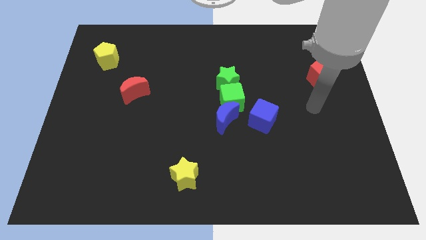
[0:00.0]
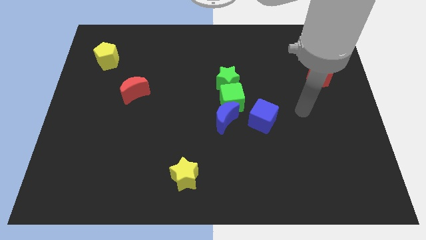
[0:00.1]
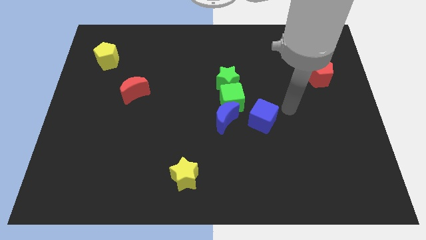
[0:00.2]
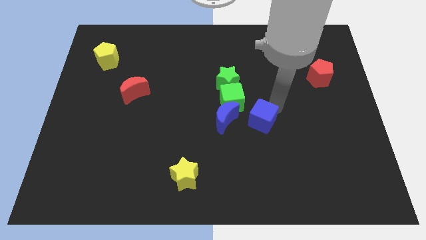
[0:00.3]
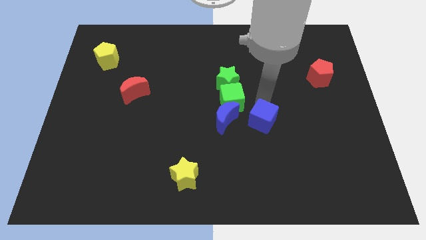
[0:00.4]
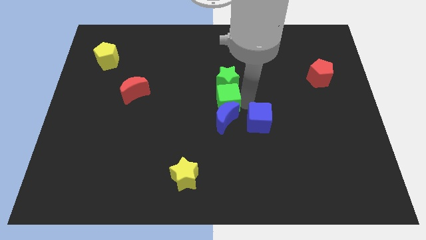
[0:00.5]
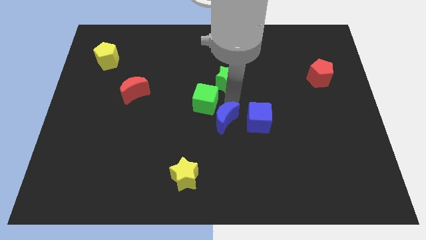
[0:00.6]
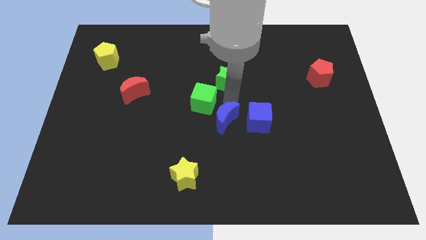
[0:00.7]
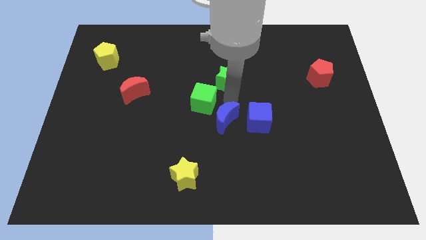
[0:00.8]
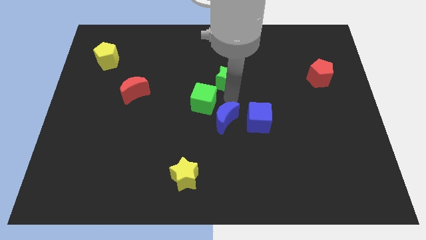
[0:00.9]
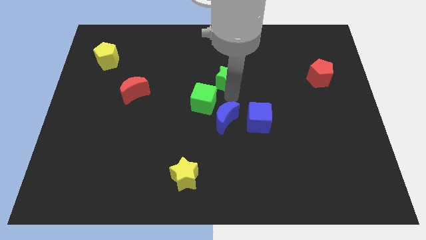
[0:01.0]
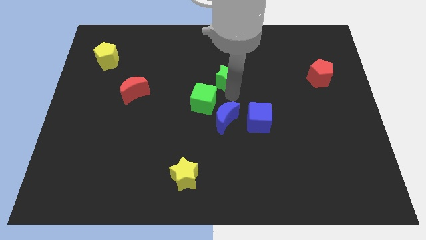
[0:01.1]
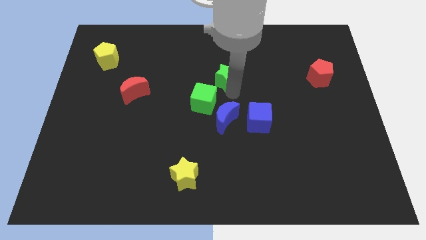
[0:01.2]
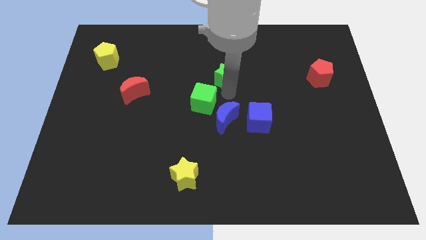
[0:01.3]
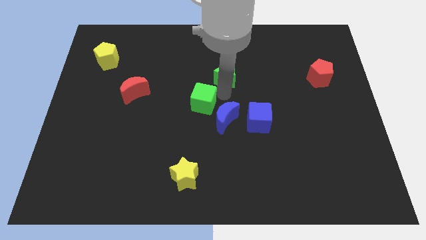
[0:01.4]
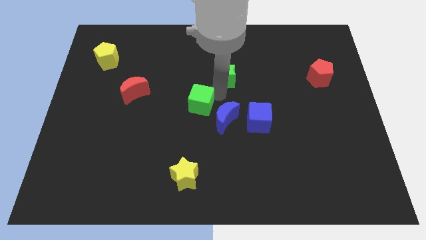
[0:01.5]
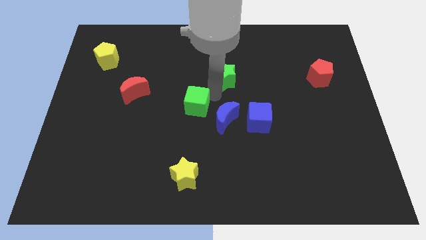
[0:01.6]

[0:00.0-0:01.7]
pull the green star apart from the green cube

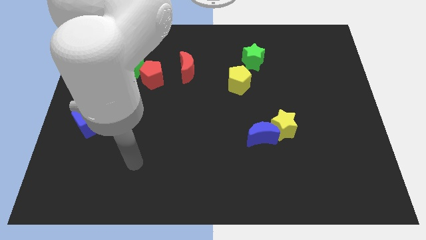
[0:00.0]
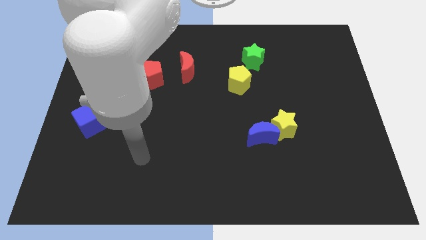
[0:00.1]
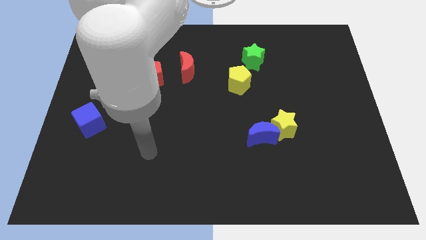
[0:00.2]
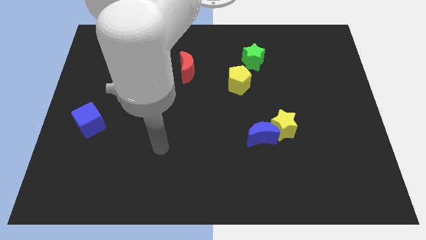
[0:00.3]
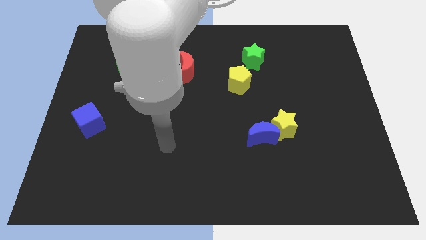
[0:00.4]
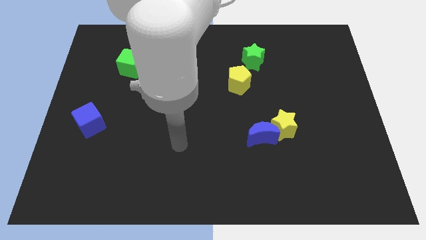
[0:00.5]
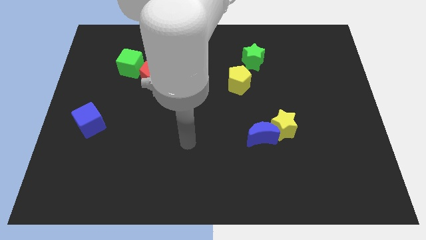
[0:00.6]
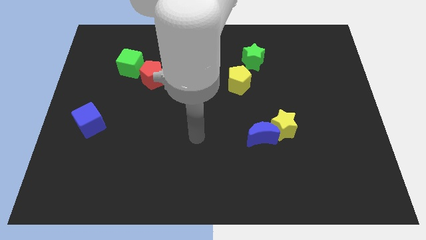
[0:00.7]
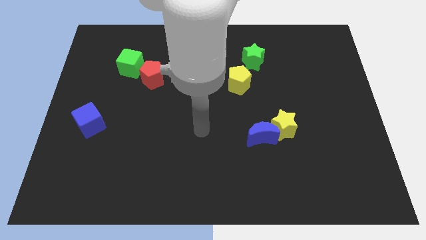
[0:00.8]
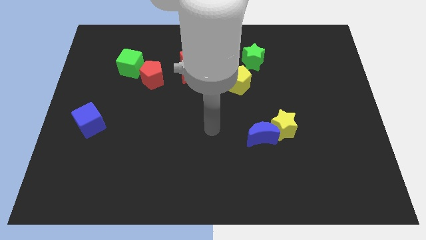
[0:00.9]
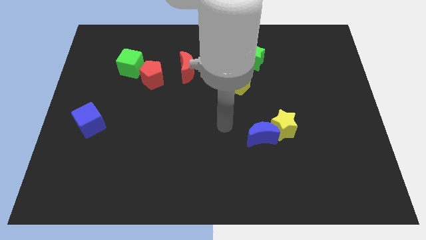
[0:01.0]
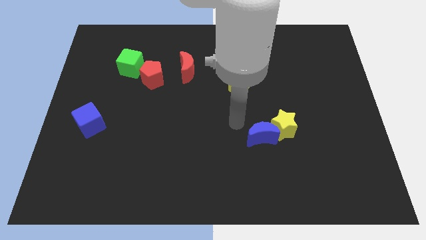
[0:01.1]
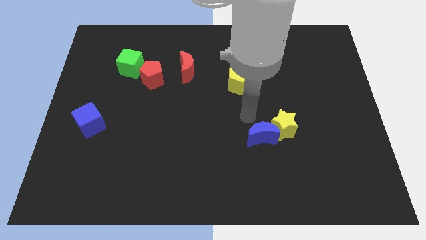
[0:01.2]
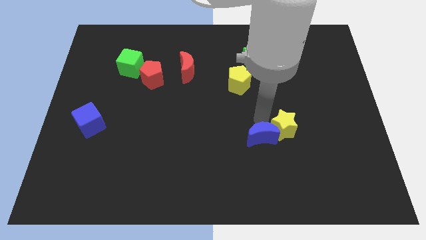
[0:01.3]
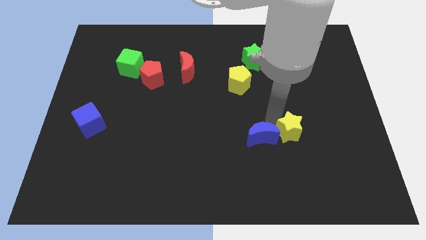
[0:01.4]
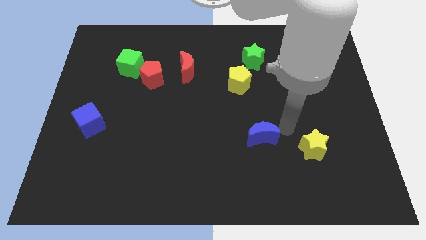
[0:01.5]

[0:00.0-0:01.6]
separate the blue moon from the yellow star

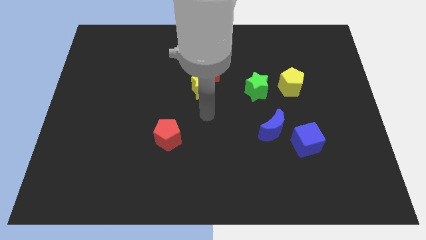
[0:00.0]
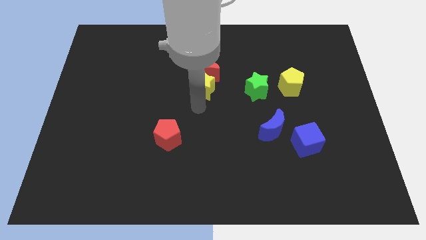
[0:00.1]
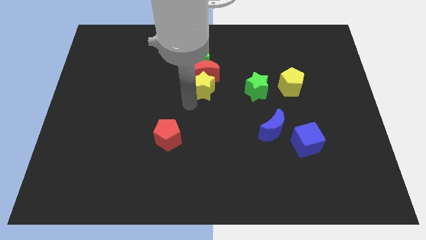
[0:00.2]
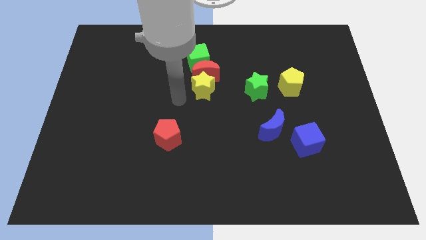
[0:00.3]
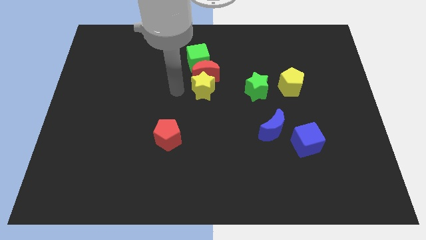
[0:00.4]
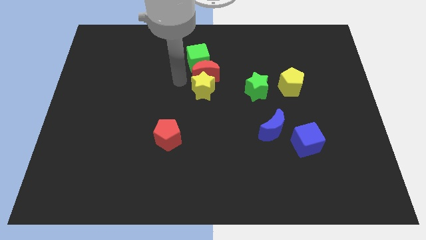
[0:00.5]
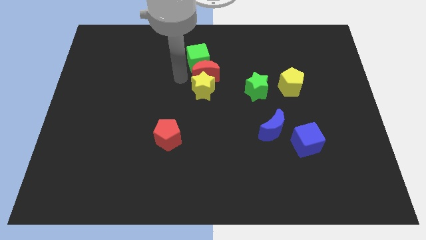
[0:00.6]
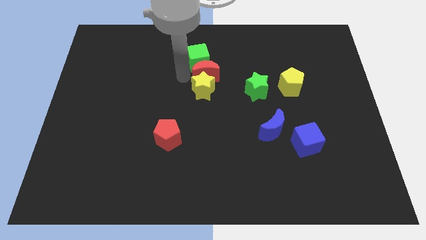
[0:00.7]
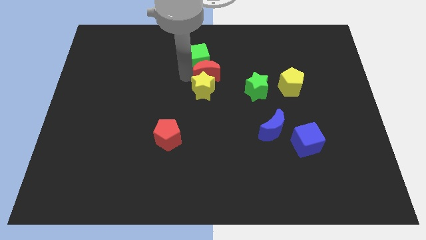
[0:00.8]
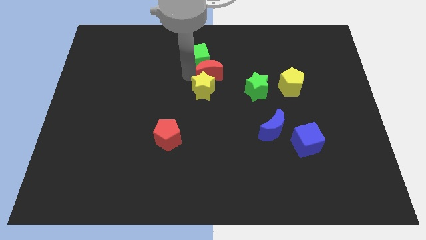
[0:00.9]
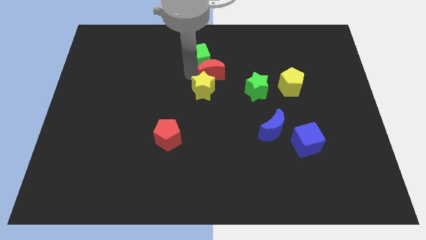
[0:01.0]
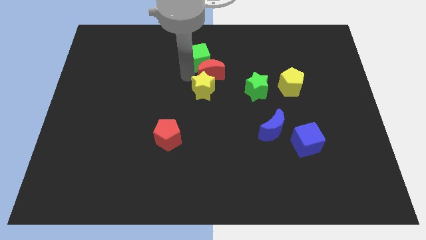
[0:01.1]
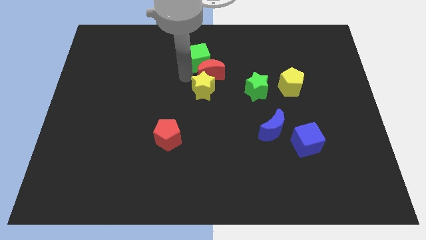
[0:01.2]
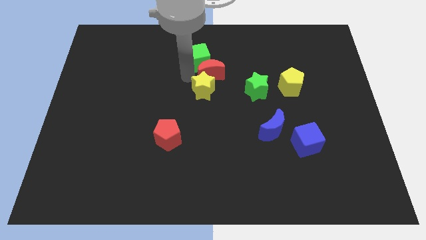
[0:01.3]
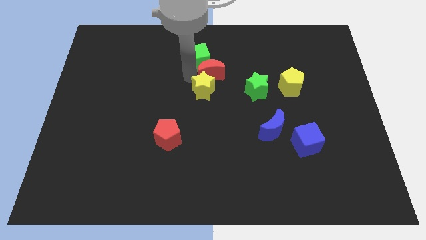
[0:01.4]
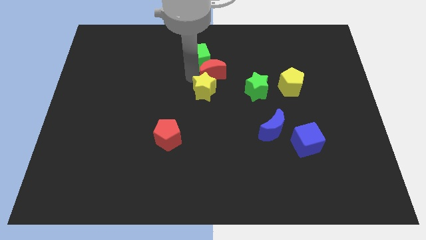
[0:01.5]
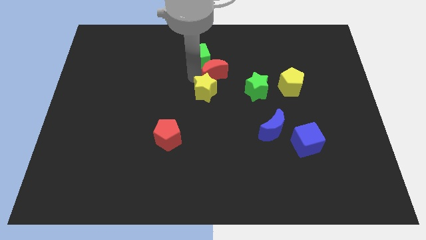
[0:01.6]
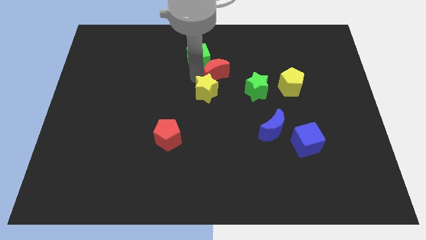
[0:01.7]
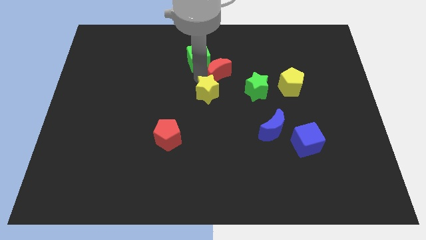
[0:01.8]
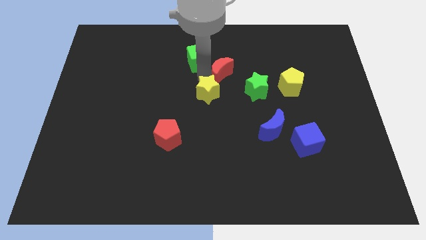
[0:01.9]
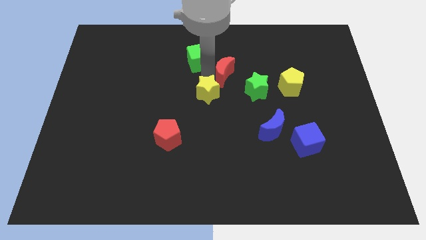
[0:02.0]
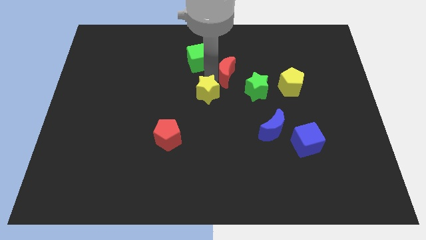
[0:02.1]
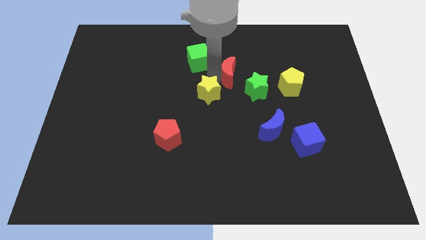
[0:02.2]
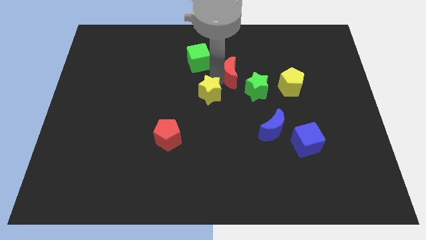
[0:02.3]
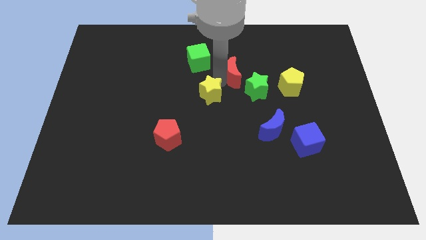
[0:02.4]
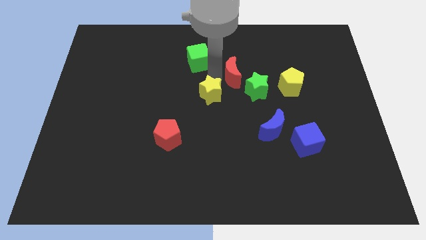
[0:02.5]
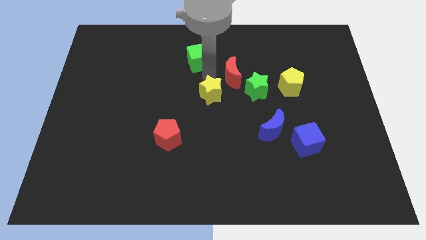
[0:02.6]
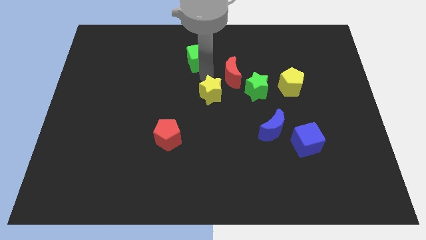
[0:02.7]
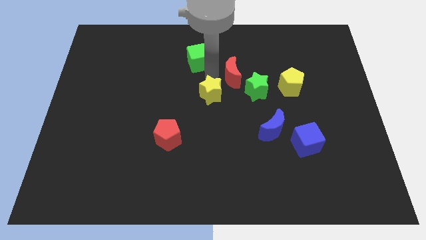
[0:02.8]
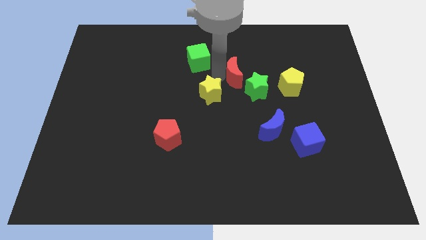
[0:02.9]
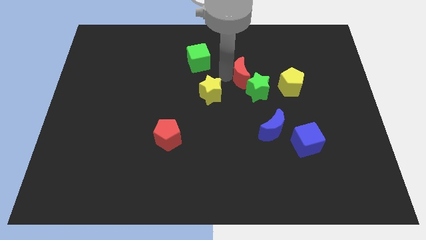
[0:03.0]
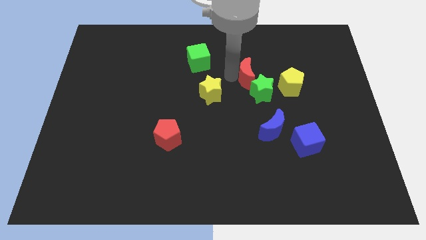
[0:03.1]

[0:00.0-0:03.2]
pull the red moon apart from the yellow star and green cube

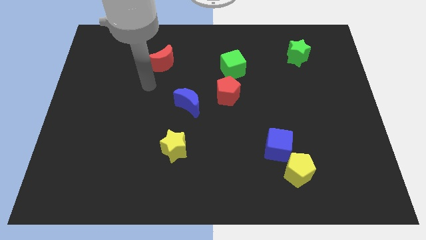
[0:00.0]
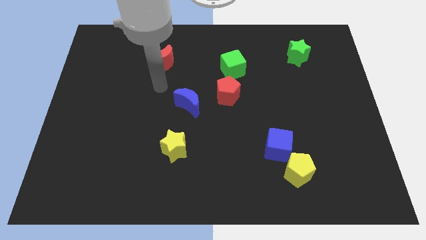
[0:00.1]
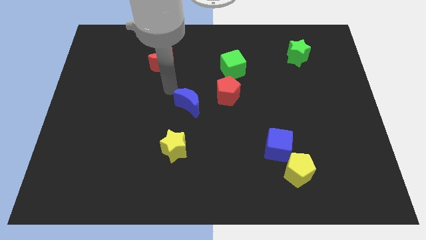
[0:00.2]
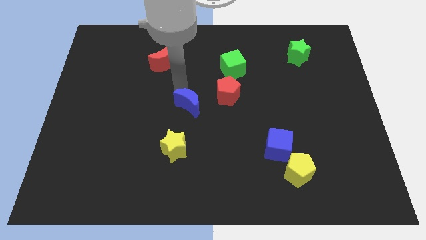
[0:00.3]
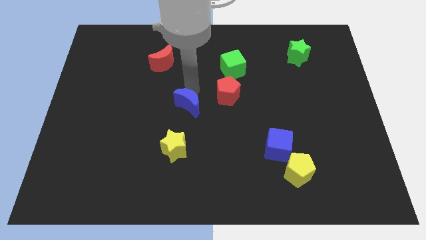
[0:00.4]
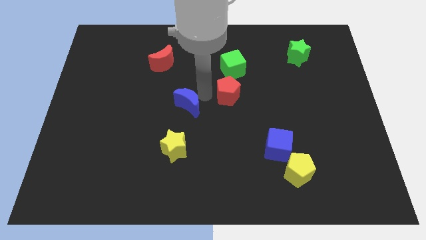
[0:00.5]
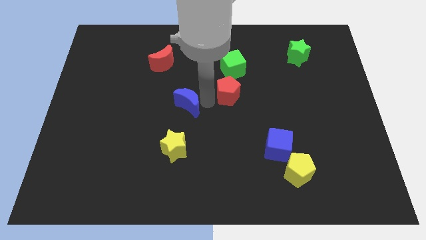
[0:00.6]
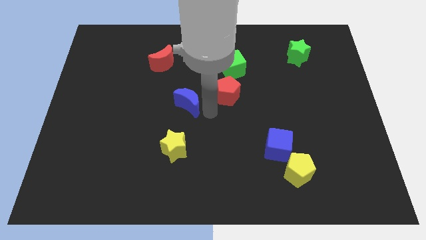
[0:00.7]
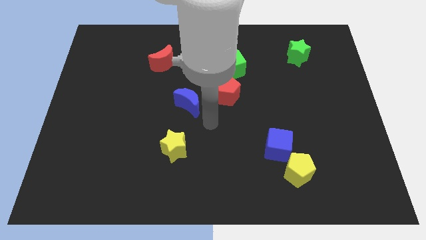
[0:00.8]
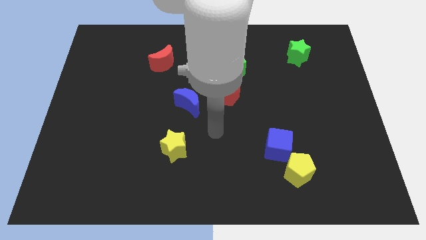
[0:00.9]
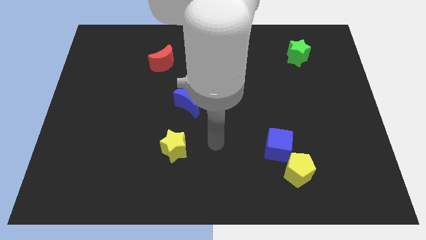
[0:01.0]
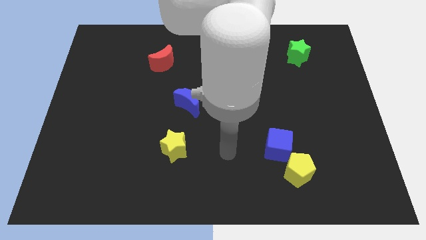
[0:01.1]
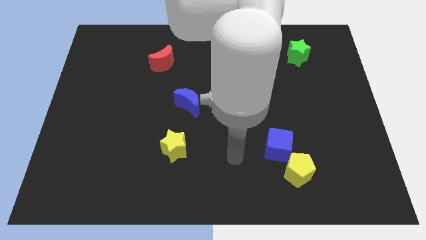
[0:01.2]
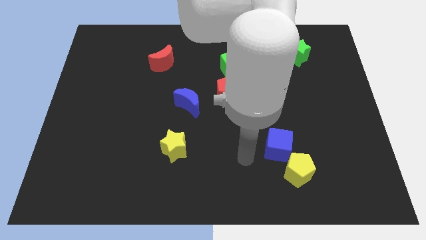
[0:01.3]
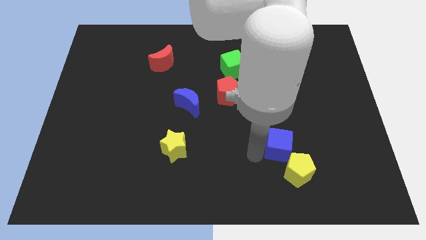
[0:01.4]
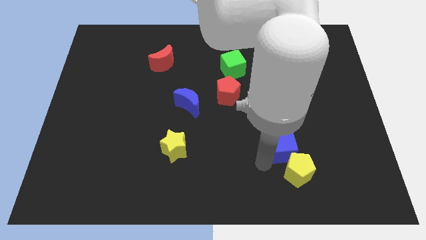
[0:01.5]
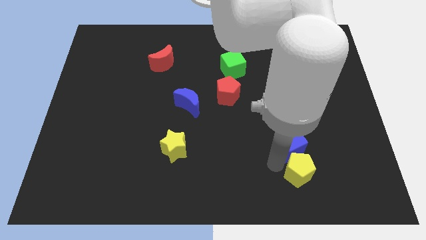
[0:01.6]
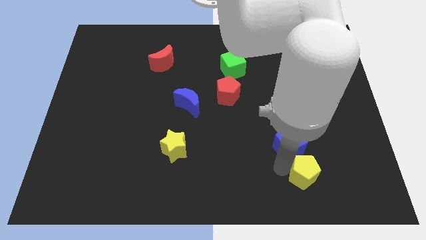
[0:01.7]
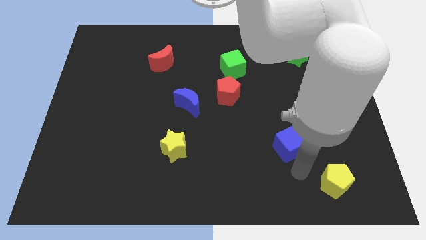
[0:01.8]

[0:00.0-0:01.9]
pull the blue cube apart from the yellow pentagon

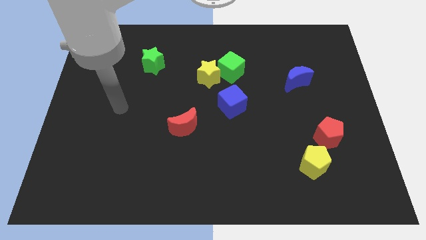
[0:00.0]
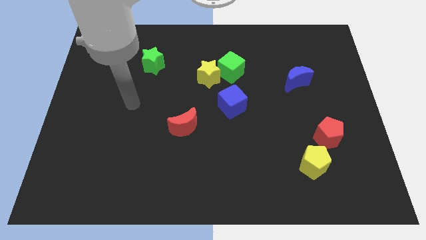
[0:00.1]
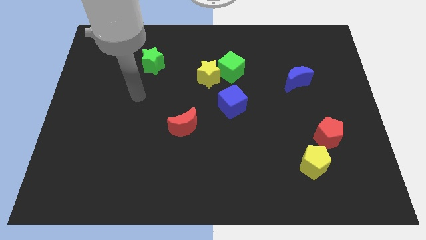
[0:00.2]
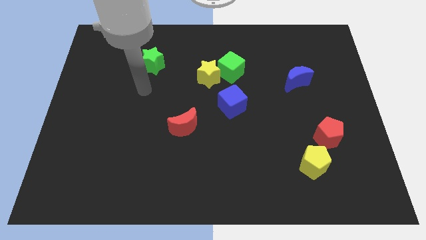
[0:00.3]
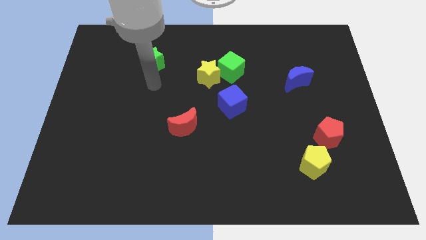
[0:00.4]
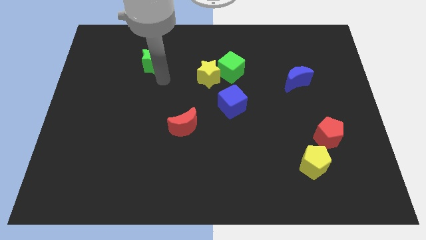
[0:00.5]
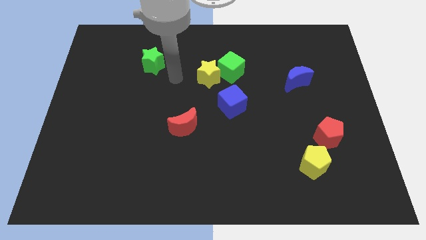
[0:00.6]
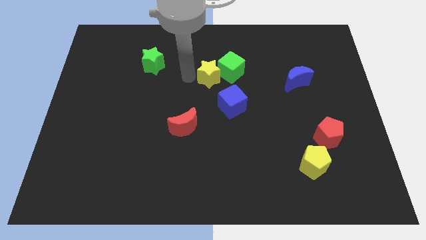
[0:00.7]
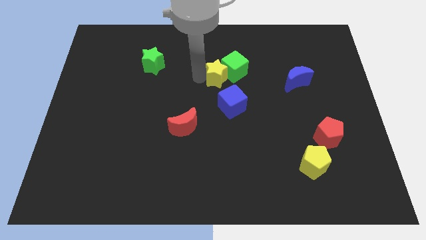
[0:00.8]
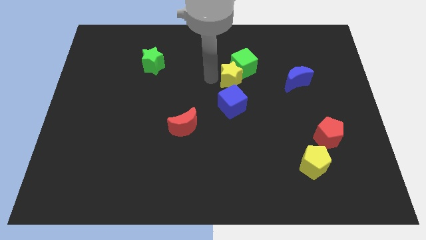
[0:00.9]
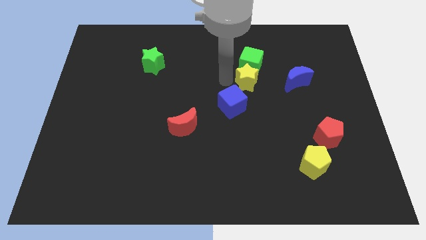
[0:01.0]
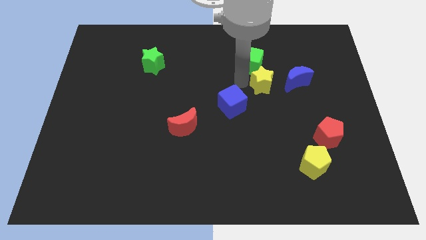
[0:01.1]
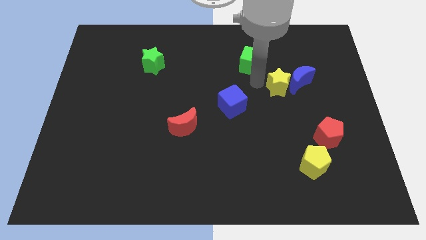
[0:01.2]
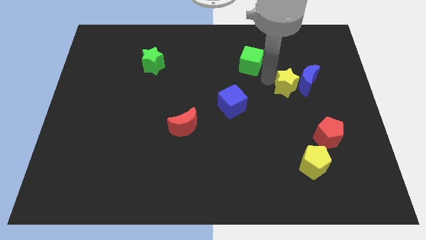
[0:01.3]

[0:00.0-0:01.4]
move the green cube away from the yellow star
